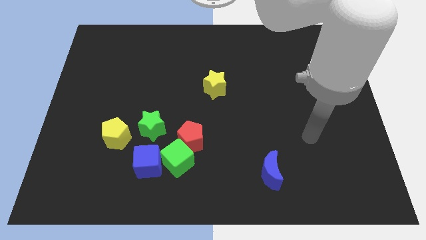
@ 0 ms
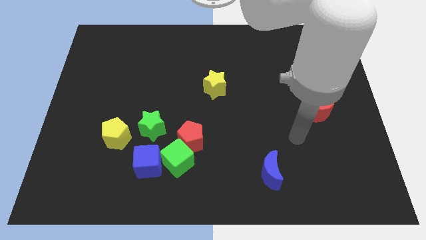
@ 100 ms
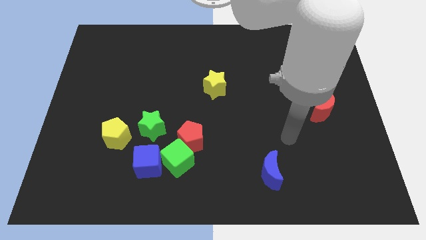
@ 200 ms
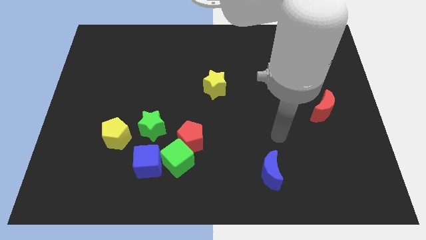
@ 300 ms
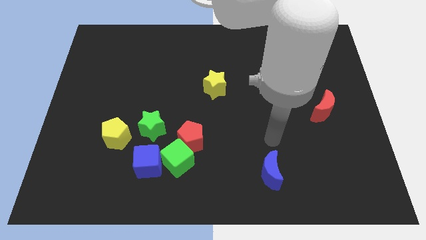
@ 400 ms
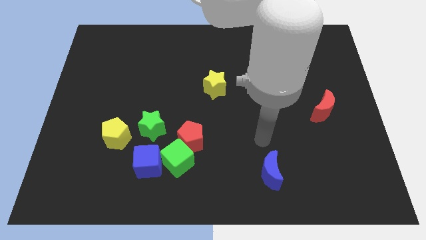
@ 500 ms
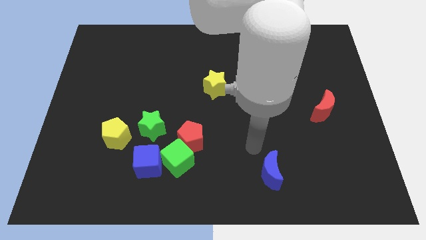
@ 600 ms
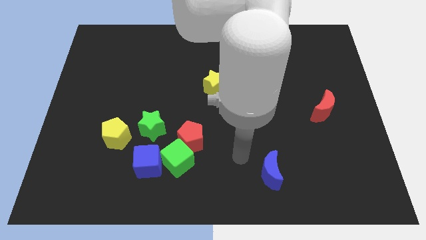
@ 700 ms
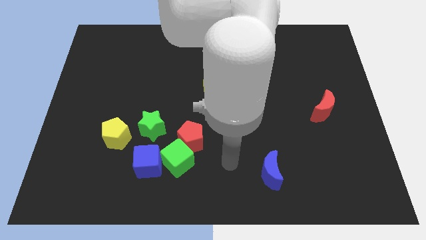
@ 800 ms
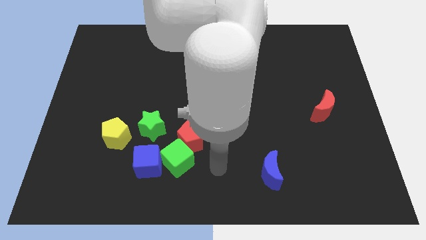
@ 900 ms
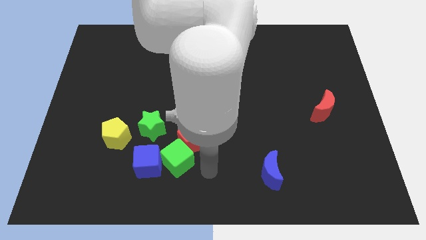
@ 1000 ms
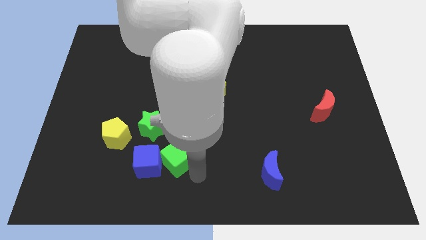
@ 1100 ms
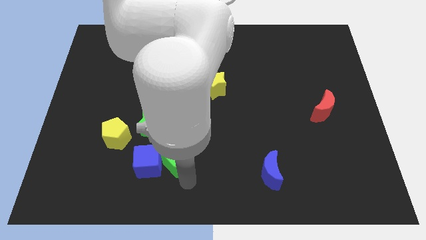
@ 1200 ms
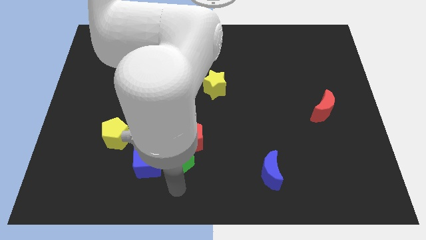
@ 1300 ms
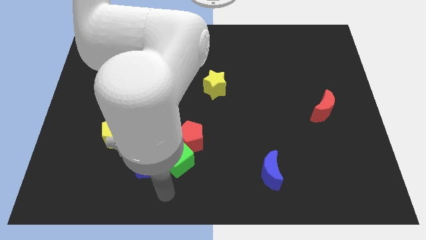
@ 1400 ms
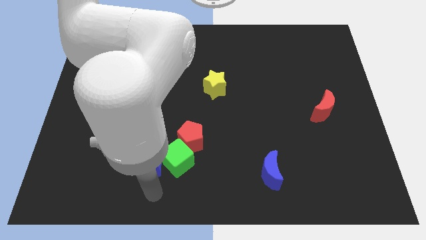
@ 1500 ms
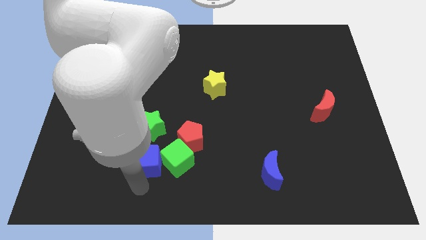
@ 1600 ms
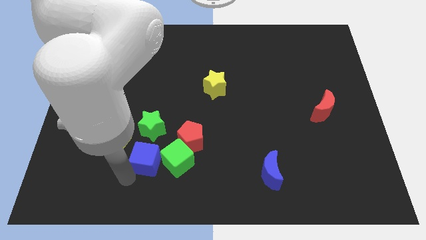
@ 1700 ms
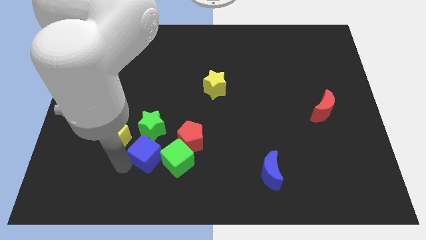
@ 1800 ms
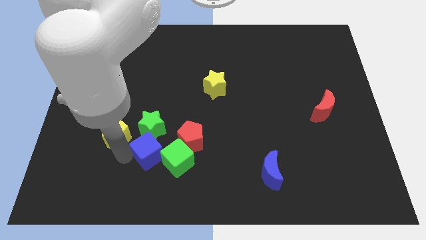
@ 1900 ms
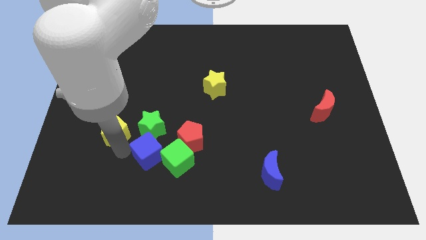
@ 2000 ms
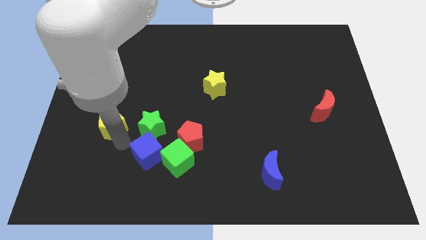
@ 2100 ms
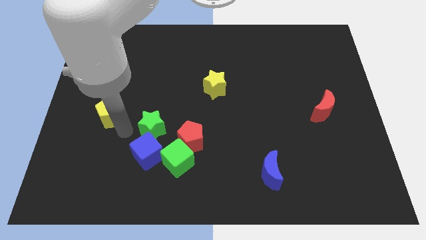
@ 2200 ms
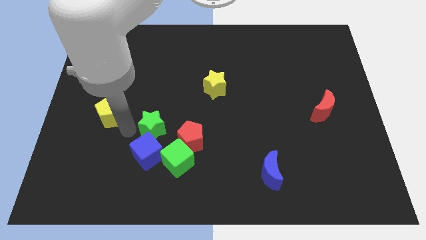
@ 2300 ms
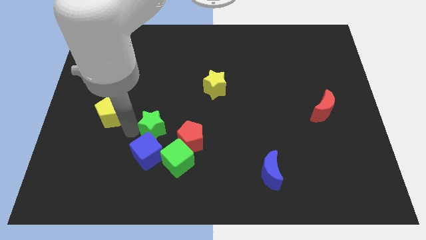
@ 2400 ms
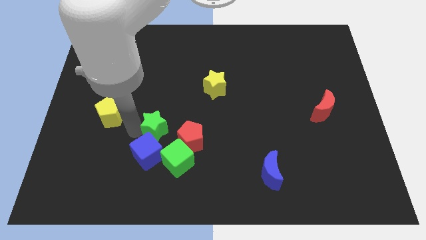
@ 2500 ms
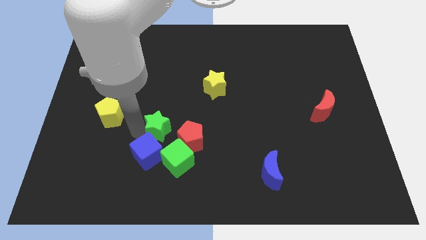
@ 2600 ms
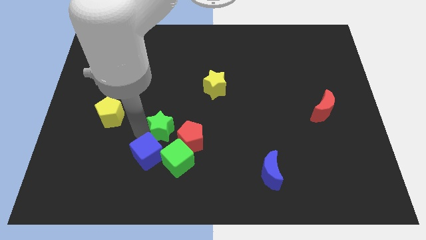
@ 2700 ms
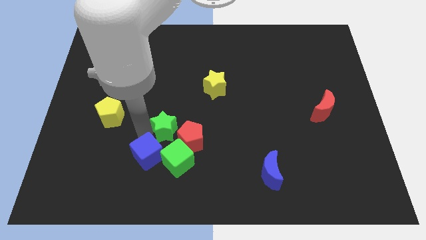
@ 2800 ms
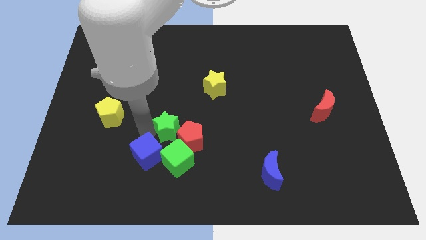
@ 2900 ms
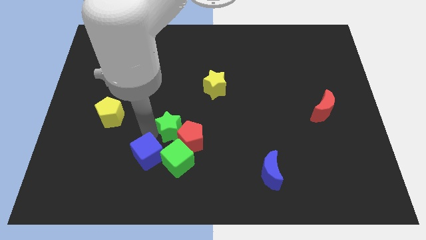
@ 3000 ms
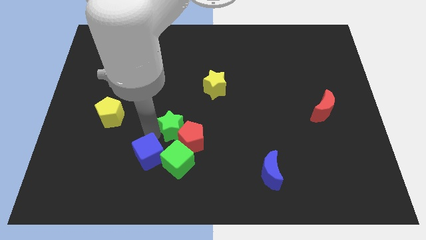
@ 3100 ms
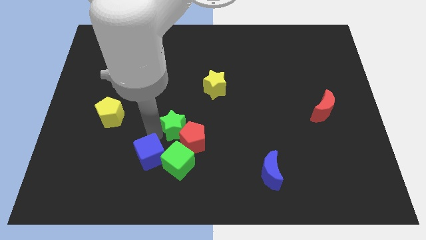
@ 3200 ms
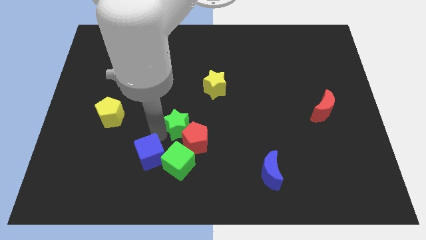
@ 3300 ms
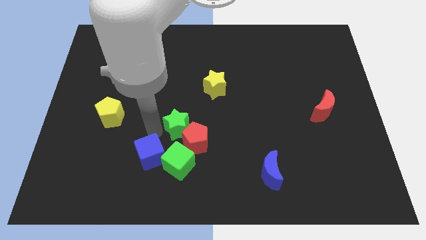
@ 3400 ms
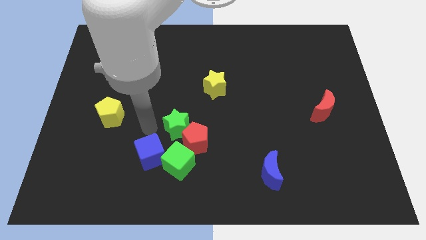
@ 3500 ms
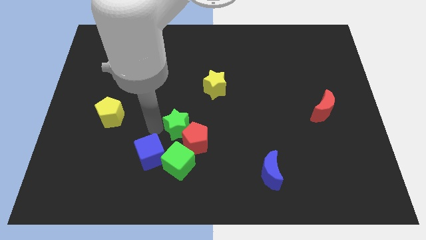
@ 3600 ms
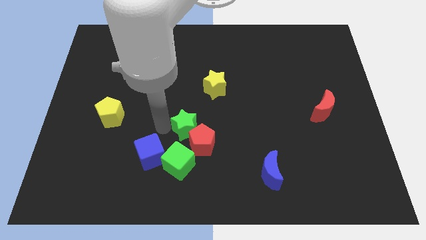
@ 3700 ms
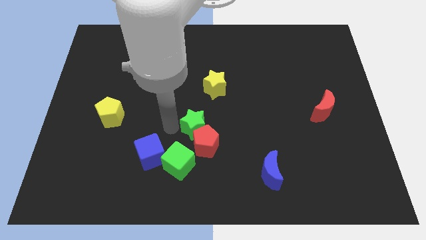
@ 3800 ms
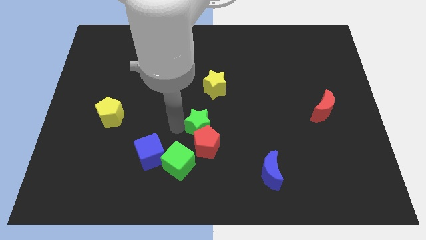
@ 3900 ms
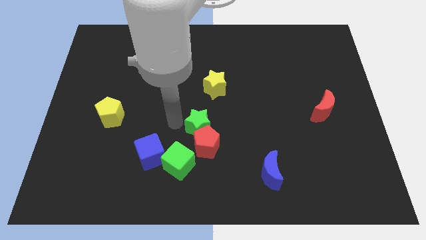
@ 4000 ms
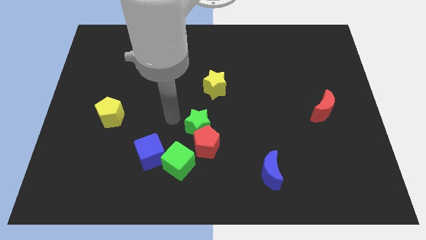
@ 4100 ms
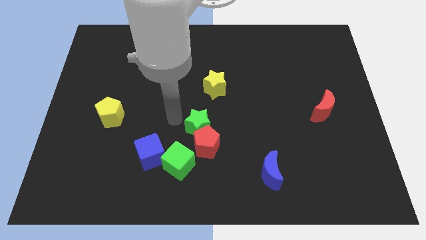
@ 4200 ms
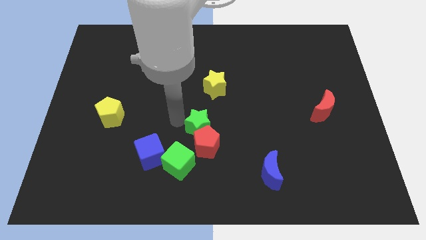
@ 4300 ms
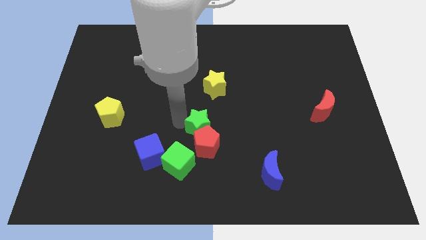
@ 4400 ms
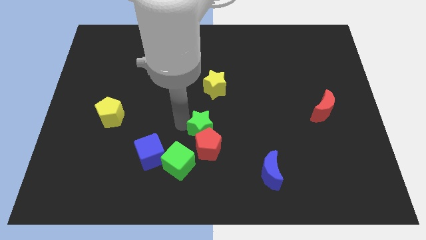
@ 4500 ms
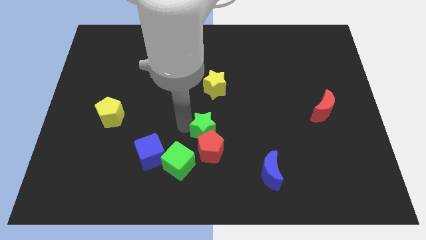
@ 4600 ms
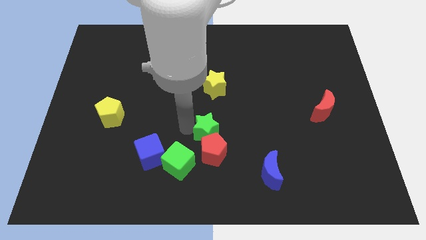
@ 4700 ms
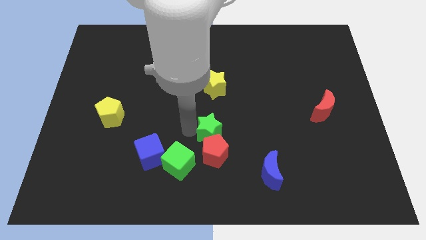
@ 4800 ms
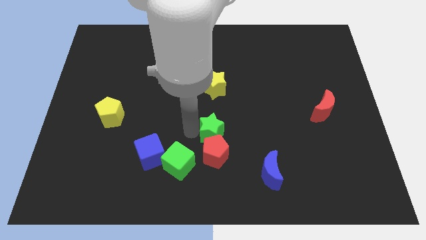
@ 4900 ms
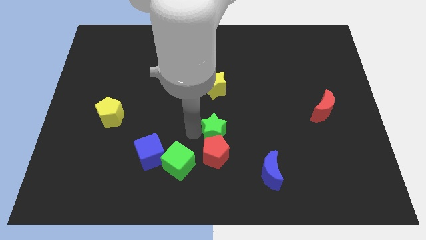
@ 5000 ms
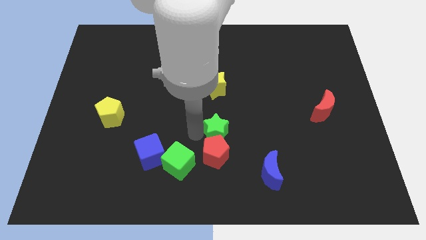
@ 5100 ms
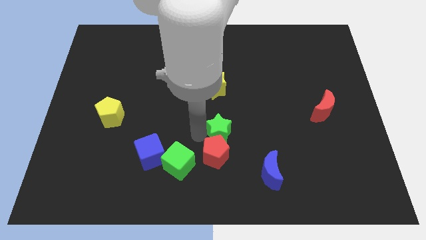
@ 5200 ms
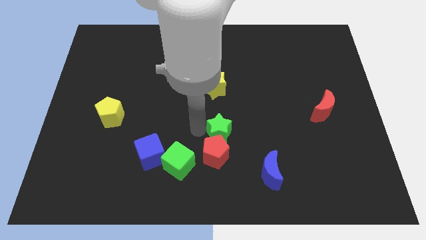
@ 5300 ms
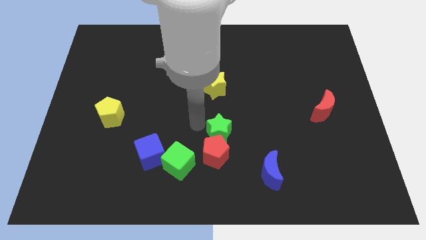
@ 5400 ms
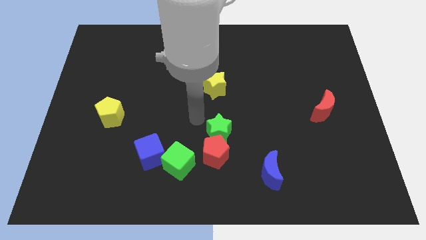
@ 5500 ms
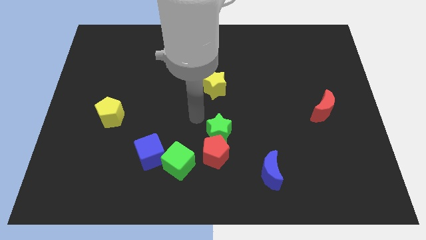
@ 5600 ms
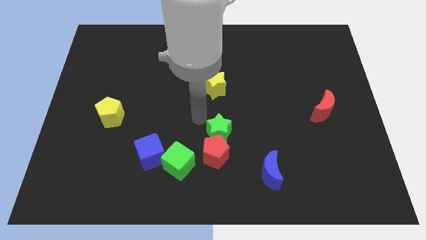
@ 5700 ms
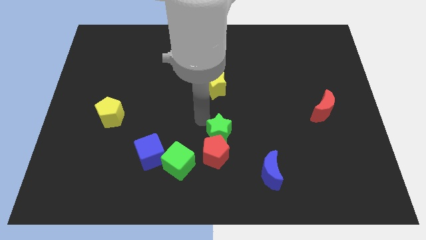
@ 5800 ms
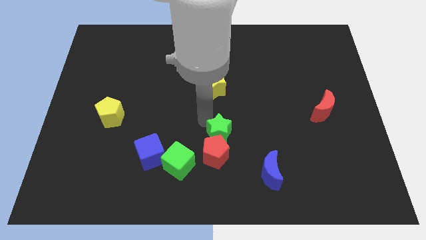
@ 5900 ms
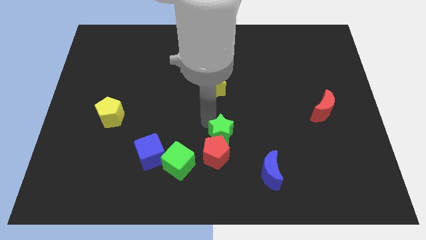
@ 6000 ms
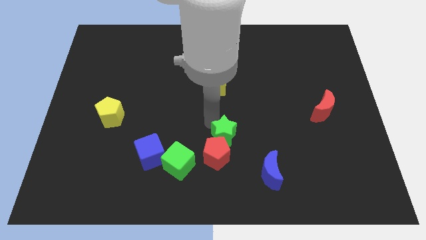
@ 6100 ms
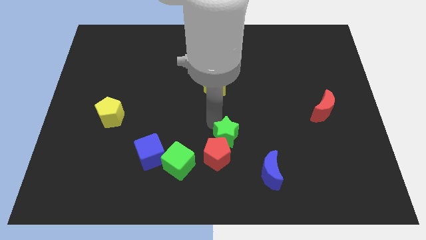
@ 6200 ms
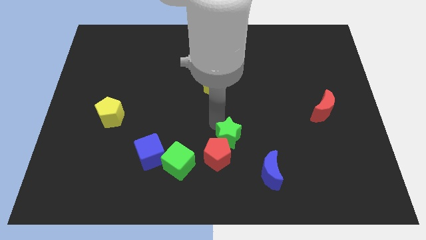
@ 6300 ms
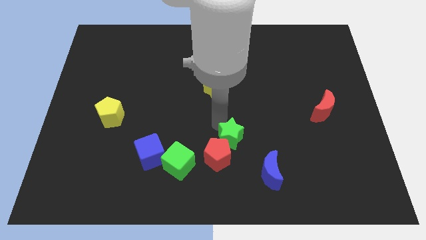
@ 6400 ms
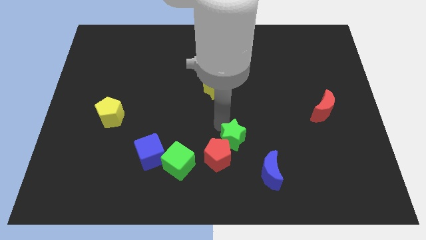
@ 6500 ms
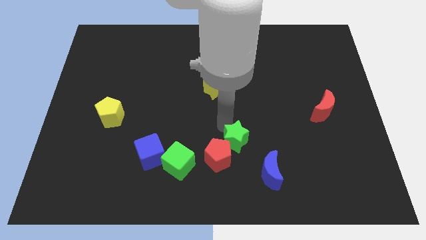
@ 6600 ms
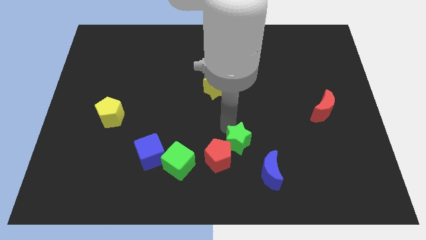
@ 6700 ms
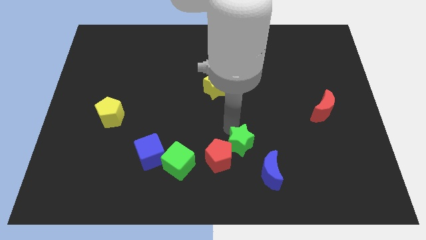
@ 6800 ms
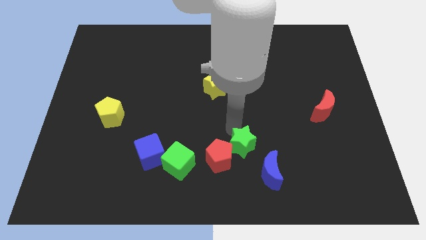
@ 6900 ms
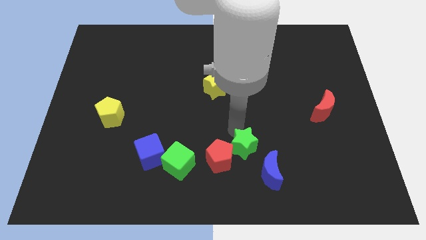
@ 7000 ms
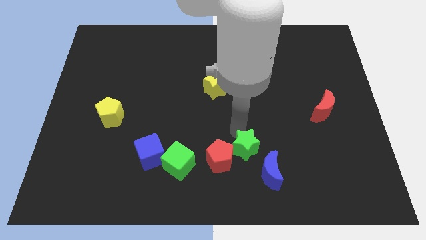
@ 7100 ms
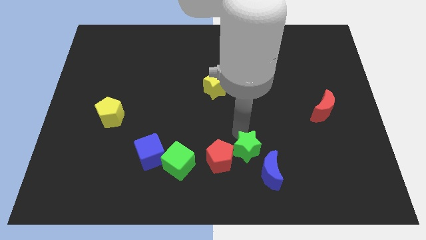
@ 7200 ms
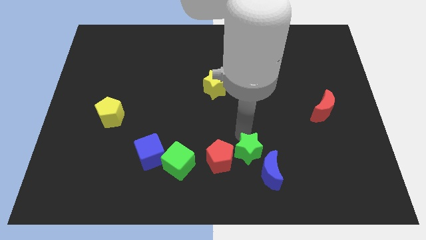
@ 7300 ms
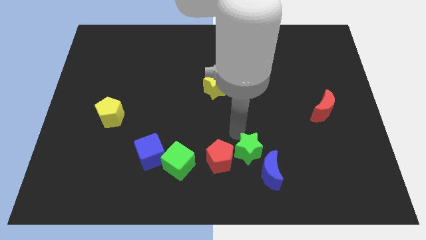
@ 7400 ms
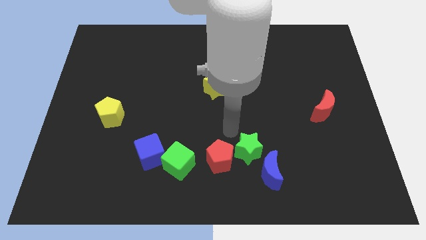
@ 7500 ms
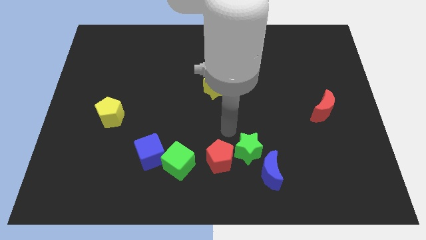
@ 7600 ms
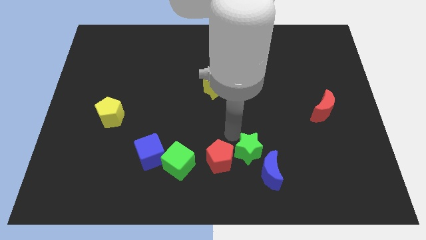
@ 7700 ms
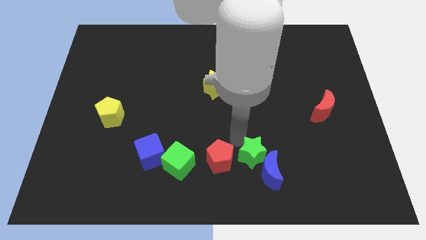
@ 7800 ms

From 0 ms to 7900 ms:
slide the green star next to the blue moon
